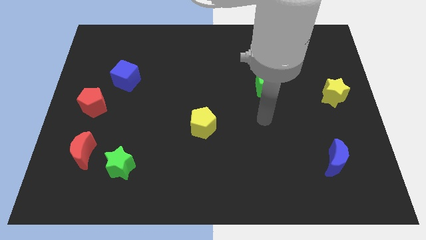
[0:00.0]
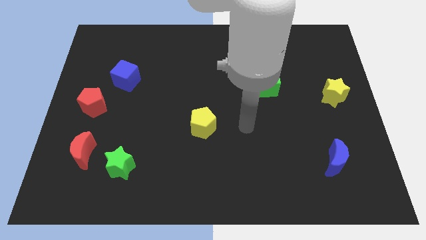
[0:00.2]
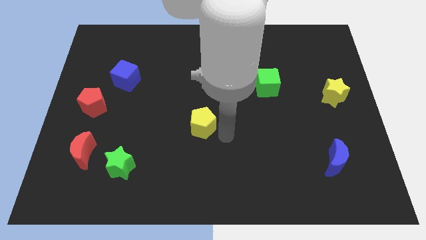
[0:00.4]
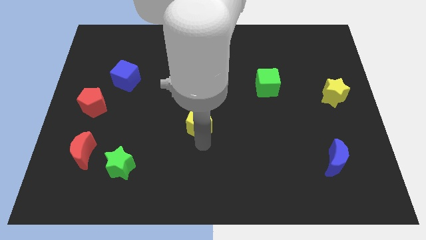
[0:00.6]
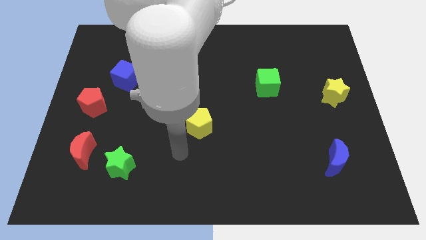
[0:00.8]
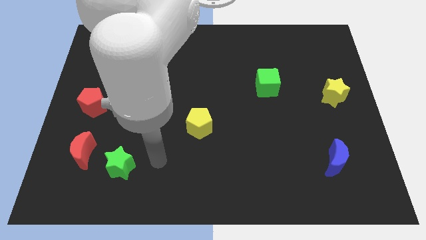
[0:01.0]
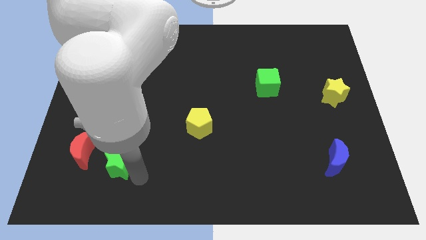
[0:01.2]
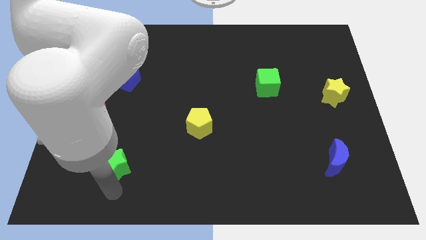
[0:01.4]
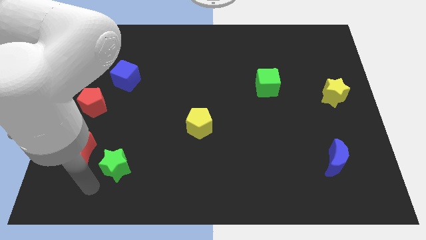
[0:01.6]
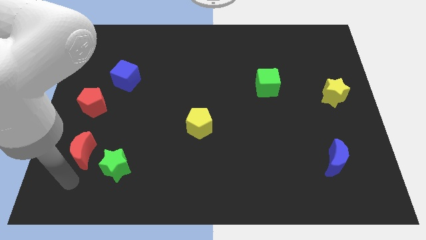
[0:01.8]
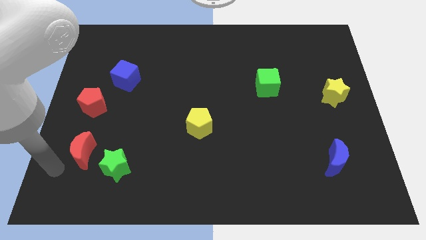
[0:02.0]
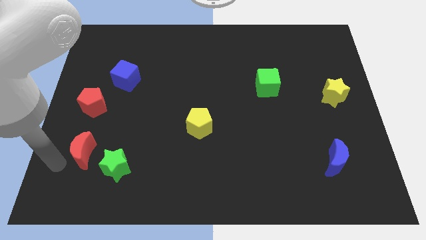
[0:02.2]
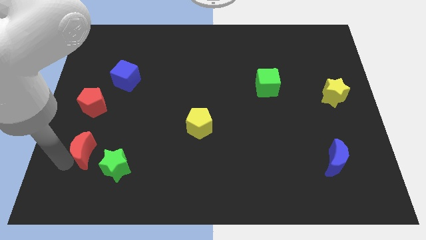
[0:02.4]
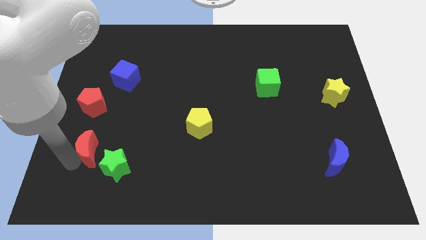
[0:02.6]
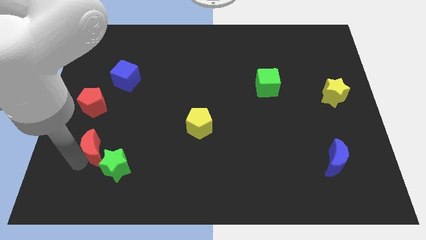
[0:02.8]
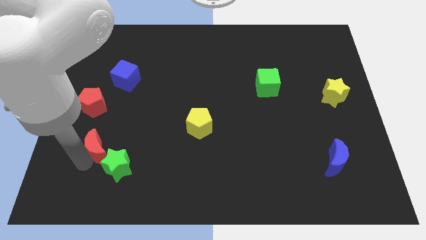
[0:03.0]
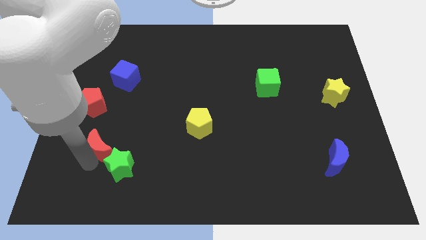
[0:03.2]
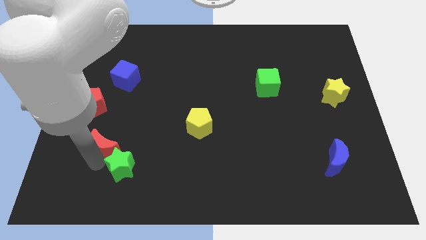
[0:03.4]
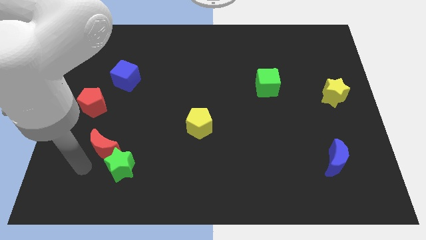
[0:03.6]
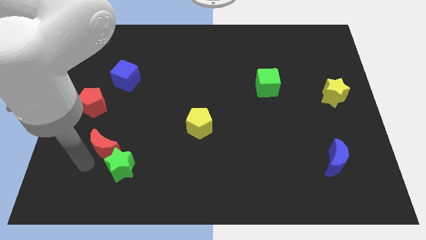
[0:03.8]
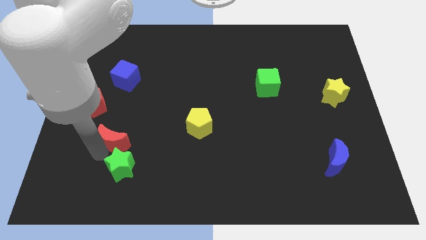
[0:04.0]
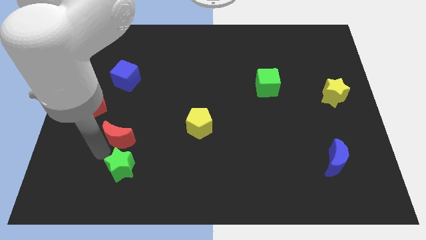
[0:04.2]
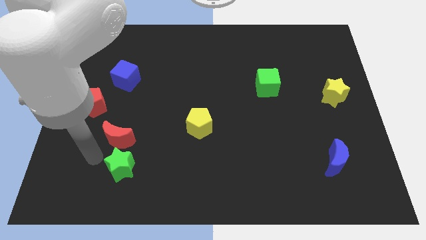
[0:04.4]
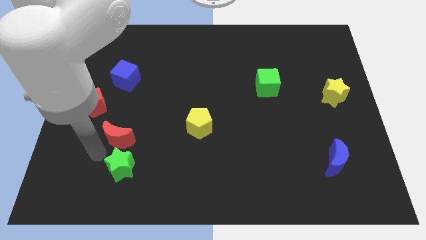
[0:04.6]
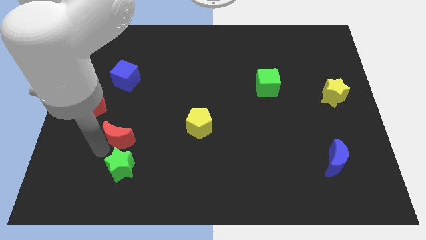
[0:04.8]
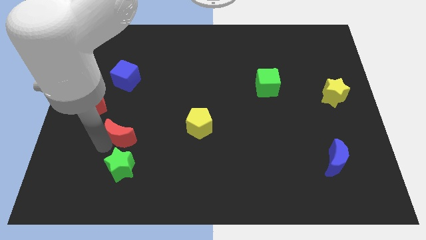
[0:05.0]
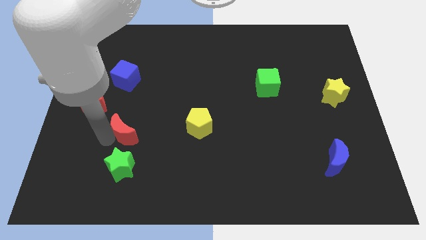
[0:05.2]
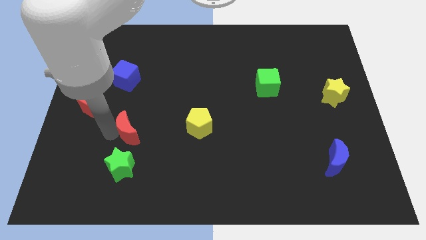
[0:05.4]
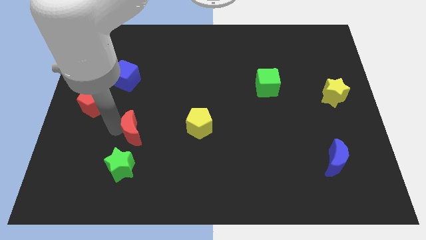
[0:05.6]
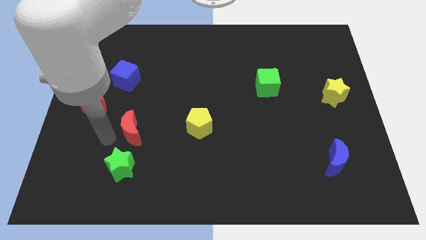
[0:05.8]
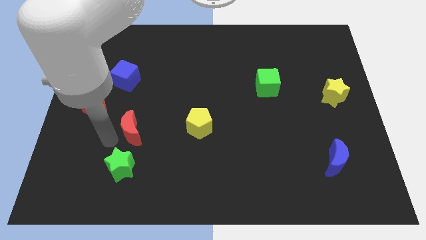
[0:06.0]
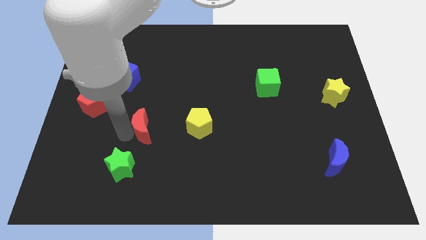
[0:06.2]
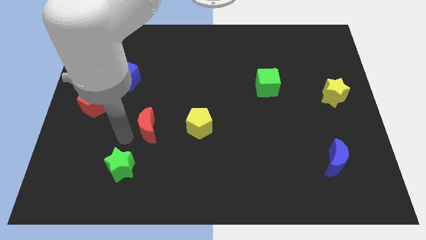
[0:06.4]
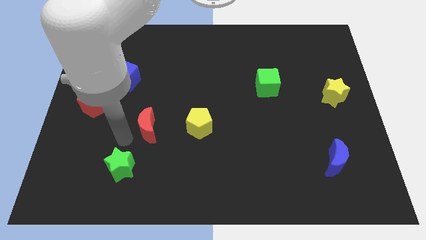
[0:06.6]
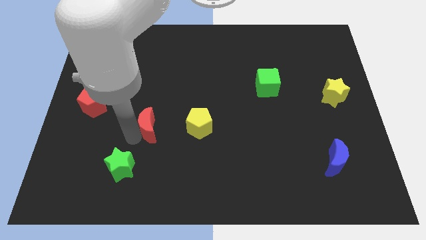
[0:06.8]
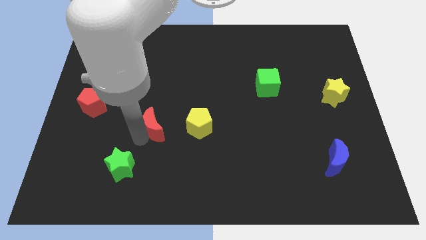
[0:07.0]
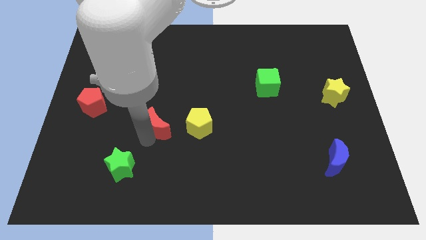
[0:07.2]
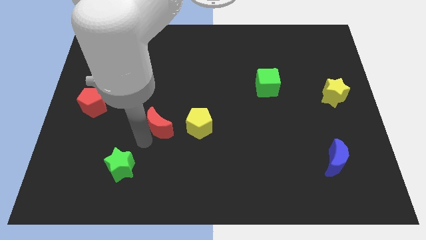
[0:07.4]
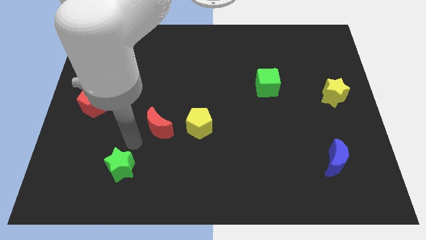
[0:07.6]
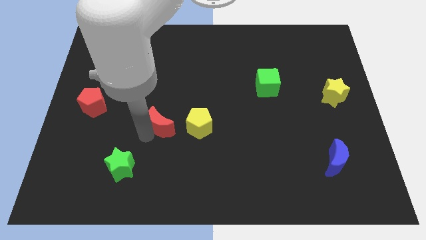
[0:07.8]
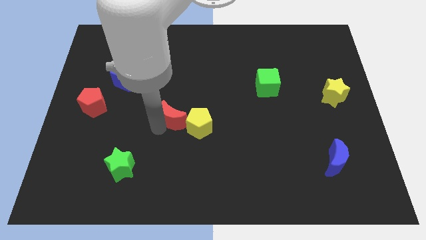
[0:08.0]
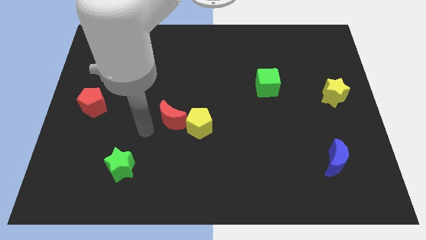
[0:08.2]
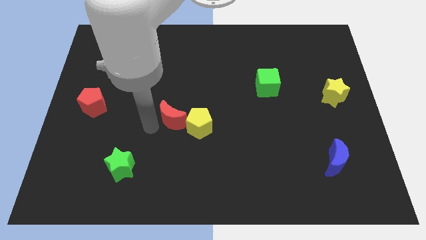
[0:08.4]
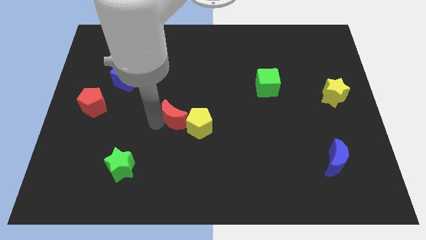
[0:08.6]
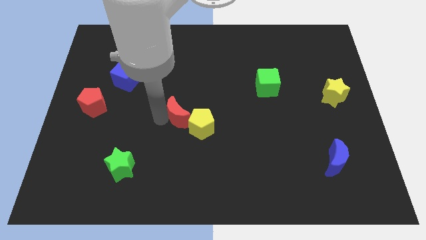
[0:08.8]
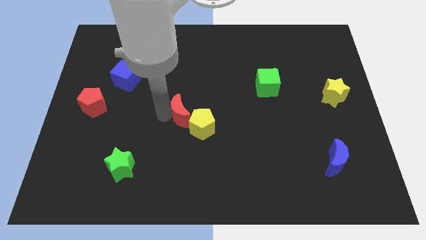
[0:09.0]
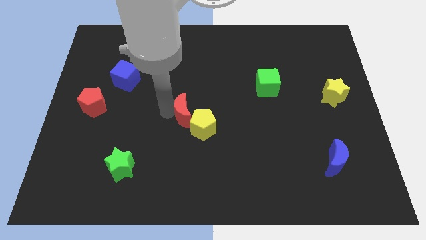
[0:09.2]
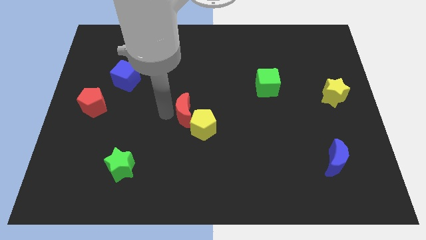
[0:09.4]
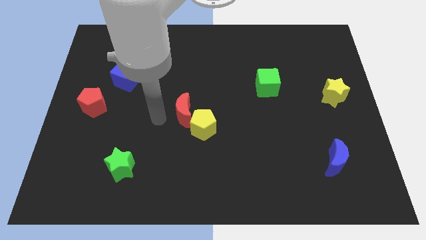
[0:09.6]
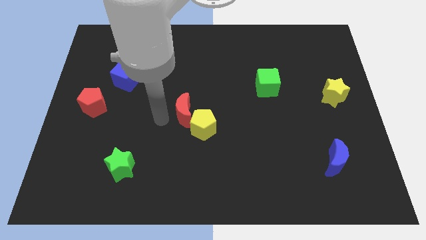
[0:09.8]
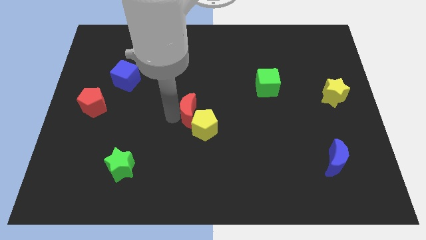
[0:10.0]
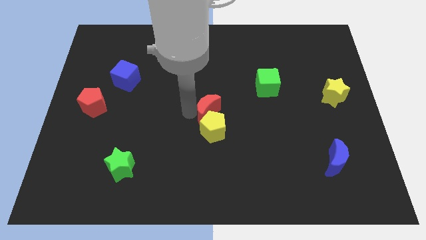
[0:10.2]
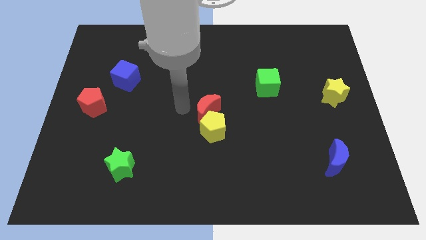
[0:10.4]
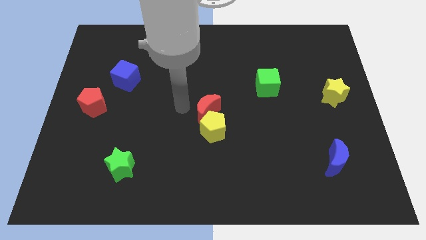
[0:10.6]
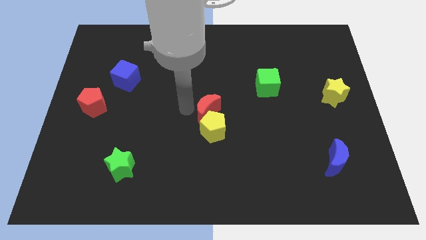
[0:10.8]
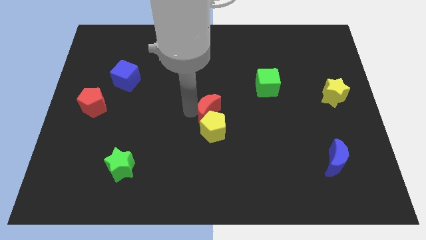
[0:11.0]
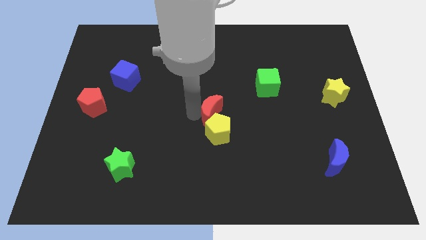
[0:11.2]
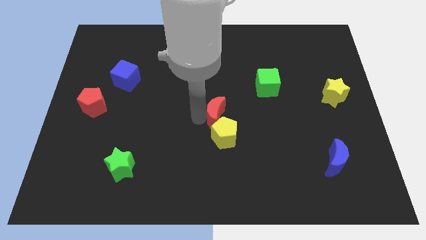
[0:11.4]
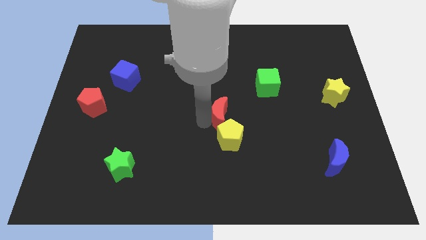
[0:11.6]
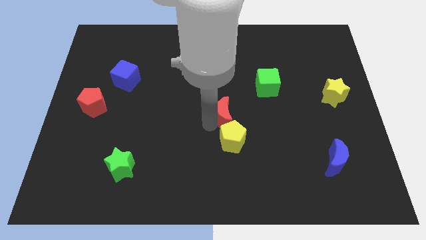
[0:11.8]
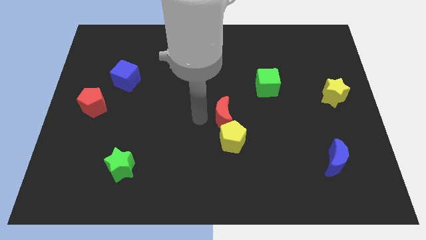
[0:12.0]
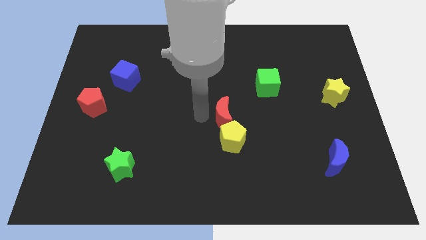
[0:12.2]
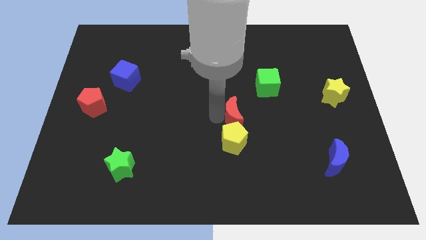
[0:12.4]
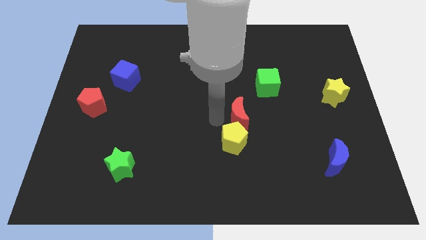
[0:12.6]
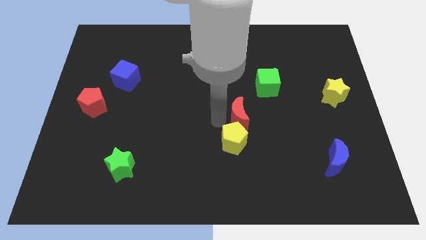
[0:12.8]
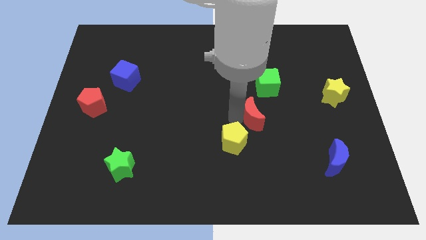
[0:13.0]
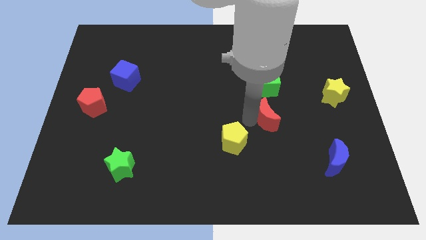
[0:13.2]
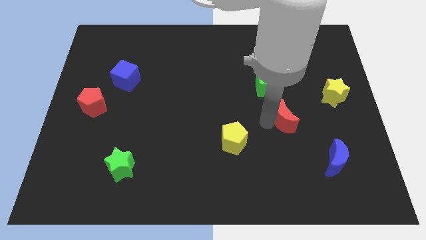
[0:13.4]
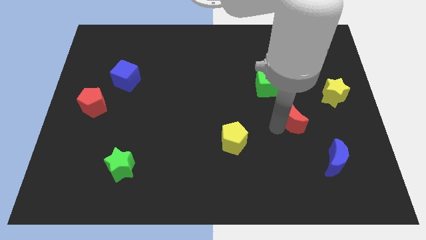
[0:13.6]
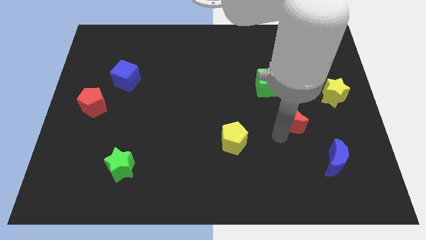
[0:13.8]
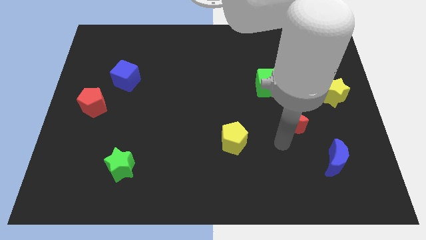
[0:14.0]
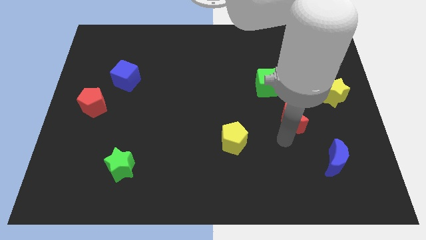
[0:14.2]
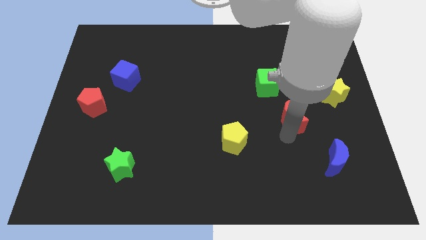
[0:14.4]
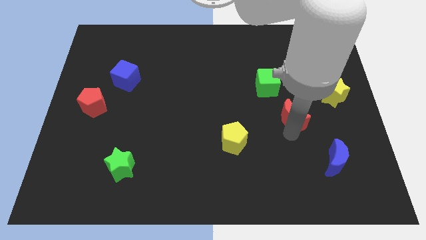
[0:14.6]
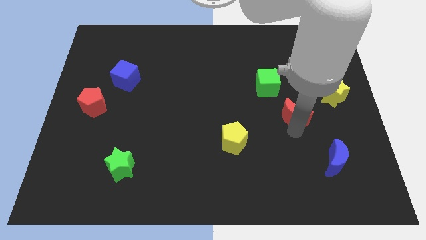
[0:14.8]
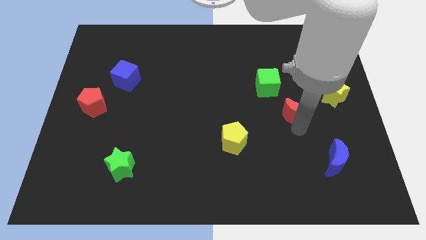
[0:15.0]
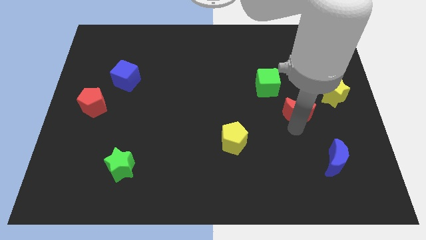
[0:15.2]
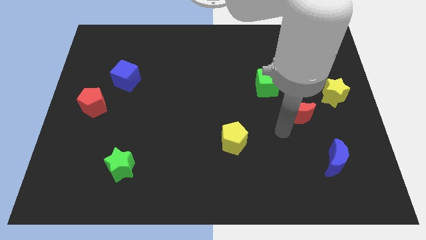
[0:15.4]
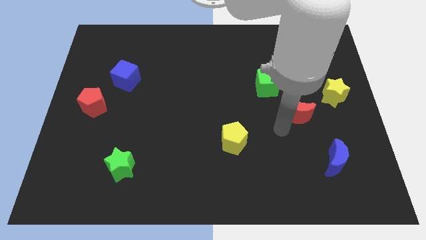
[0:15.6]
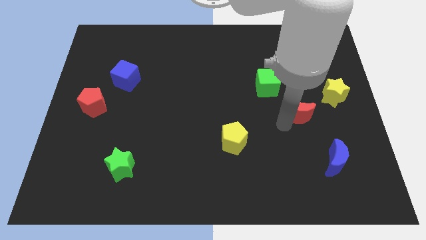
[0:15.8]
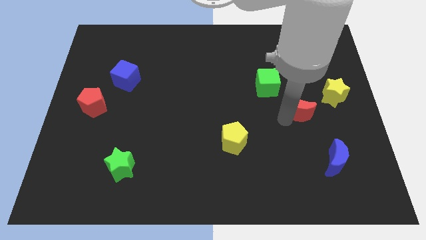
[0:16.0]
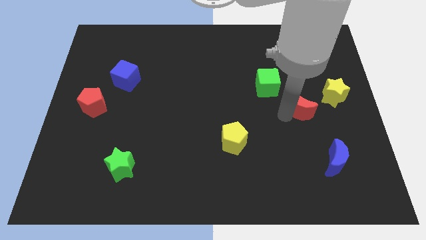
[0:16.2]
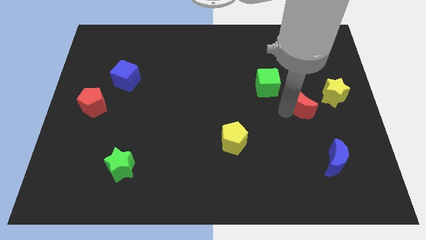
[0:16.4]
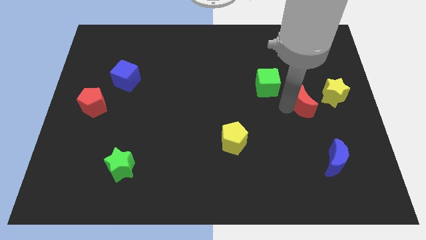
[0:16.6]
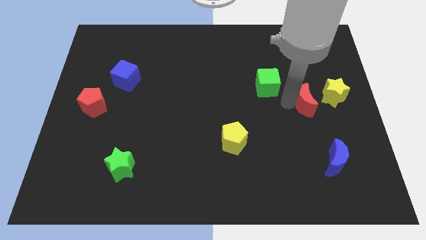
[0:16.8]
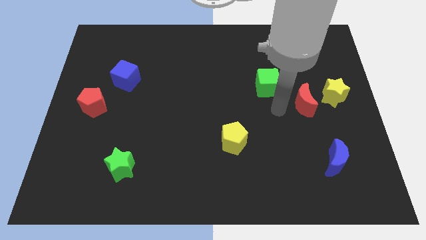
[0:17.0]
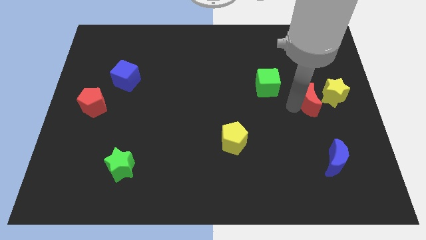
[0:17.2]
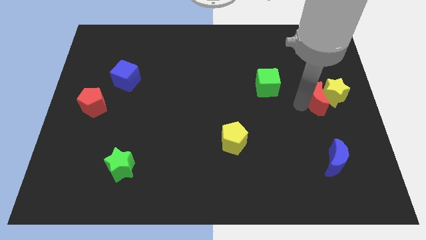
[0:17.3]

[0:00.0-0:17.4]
put the red moon next to the yellow star
